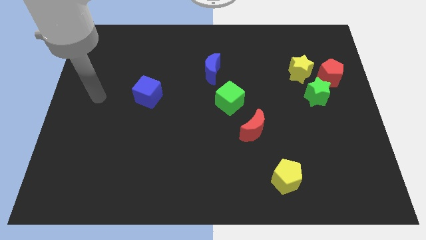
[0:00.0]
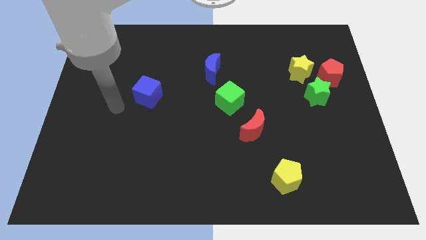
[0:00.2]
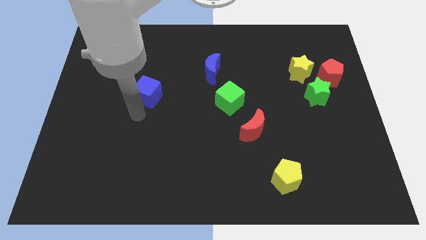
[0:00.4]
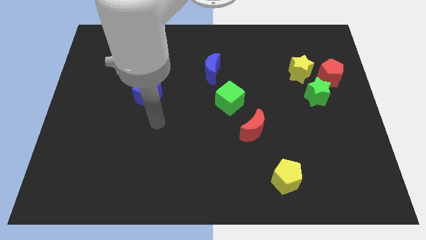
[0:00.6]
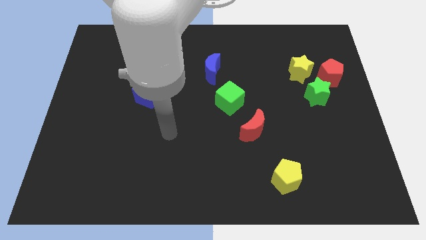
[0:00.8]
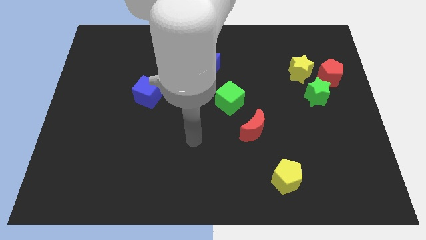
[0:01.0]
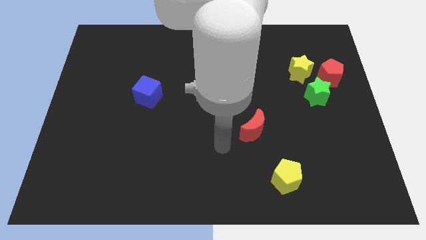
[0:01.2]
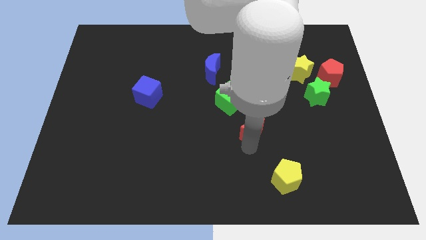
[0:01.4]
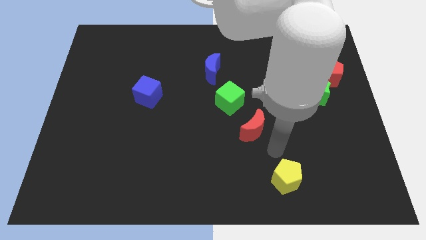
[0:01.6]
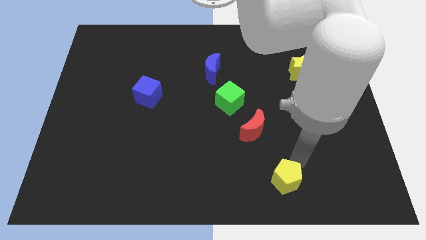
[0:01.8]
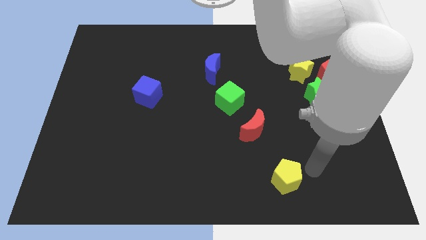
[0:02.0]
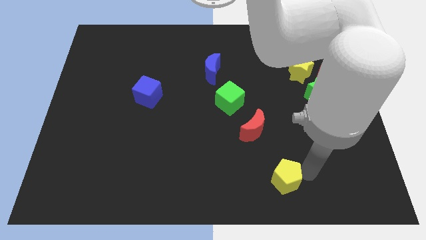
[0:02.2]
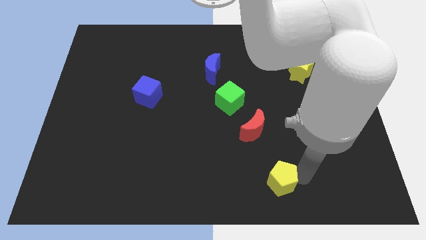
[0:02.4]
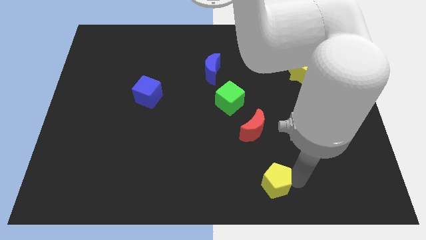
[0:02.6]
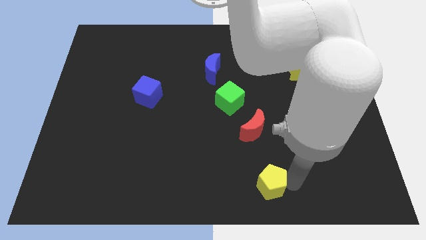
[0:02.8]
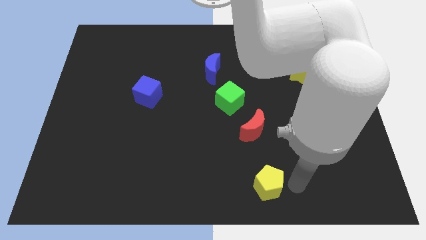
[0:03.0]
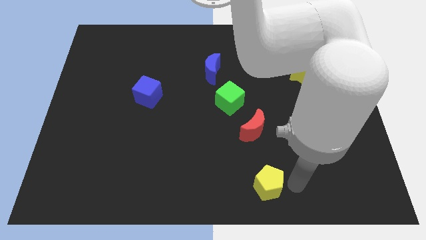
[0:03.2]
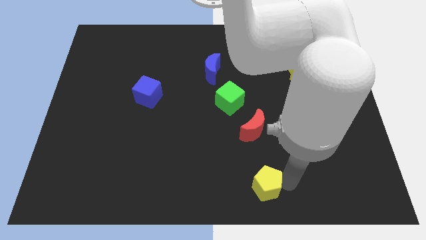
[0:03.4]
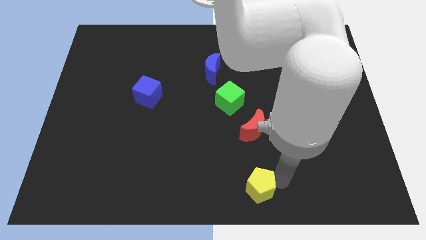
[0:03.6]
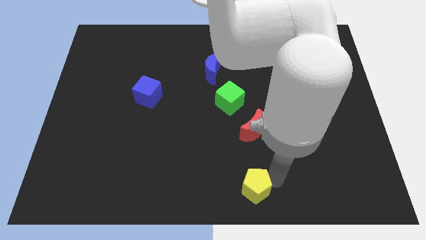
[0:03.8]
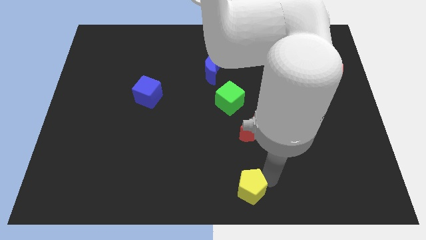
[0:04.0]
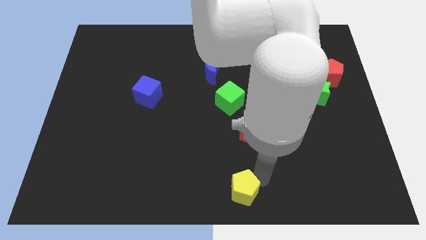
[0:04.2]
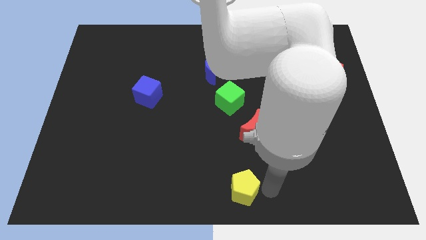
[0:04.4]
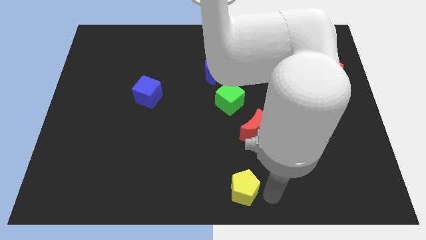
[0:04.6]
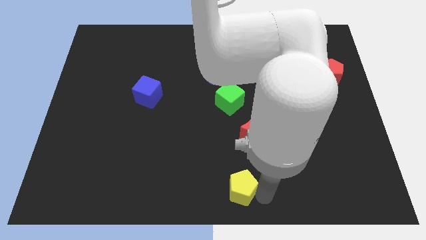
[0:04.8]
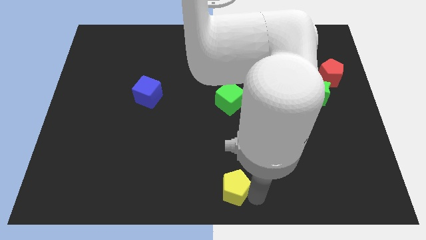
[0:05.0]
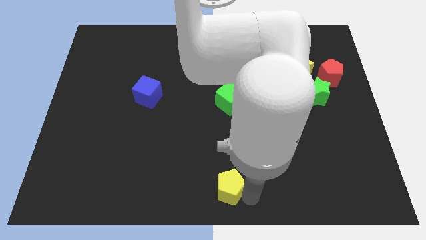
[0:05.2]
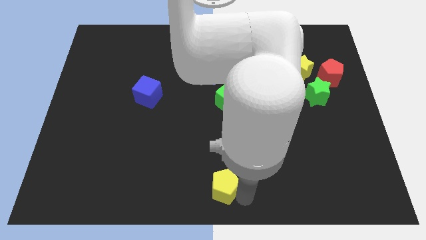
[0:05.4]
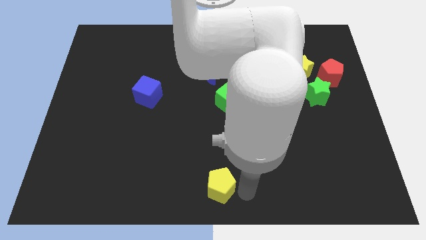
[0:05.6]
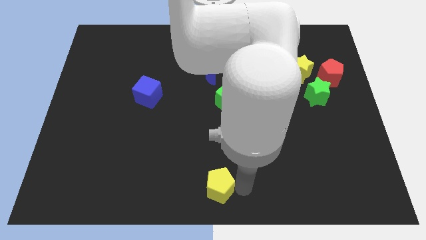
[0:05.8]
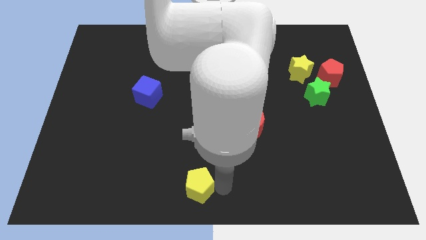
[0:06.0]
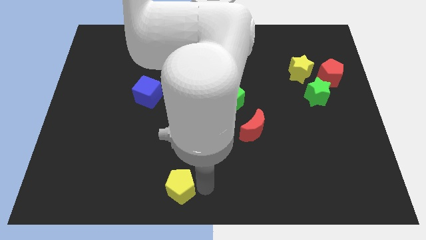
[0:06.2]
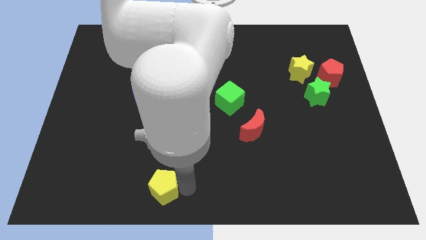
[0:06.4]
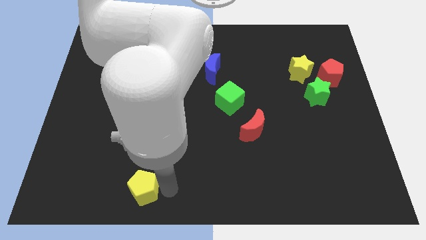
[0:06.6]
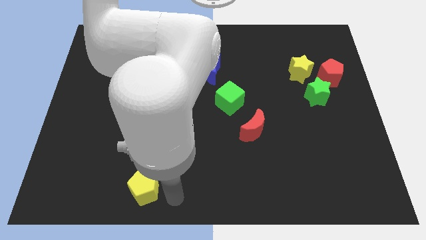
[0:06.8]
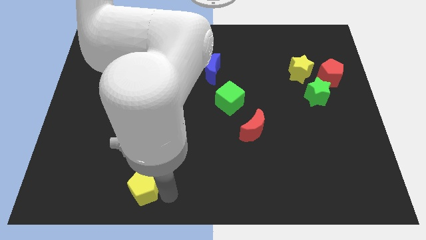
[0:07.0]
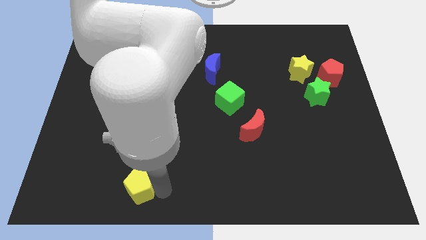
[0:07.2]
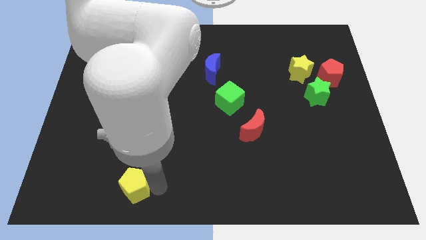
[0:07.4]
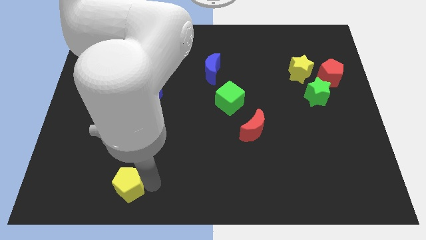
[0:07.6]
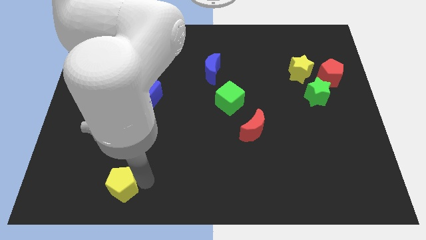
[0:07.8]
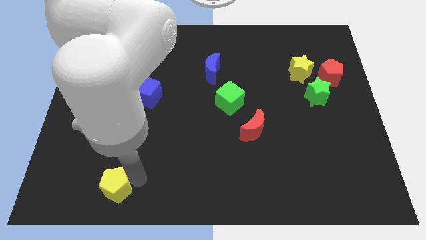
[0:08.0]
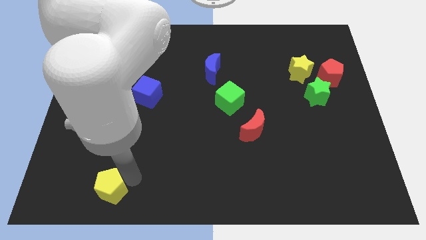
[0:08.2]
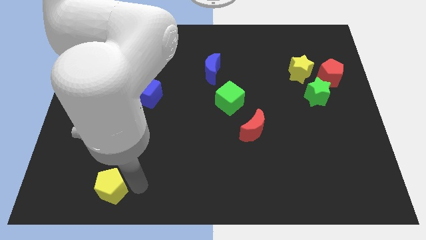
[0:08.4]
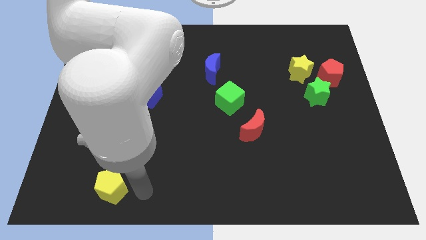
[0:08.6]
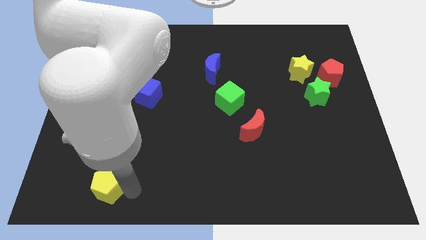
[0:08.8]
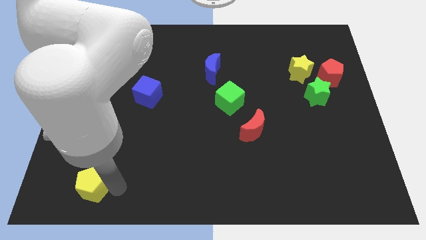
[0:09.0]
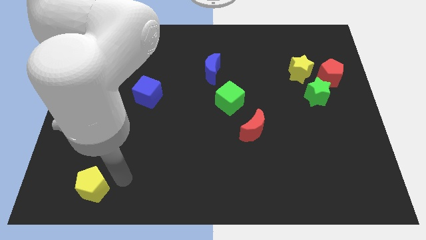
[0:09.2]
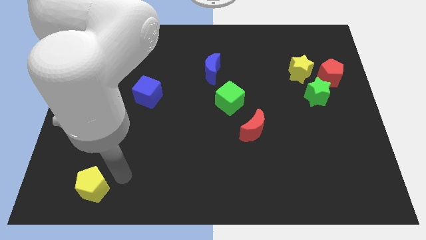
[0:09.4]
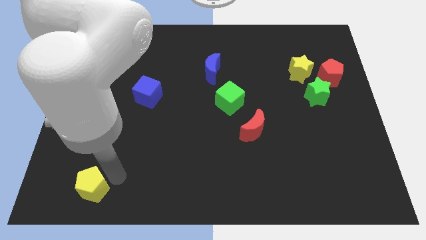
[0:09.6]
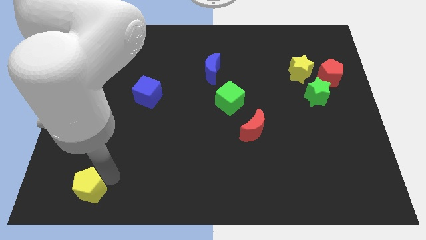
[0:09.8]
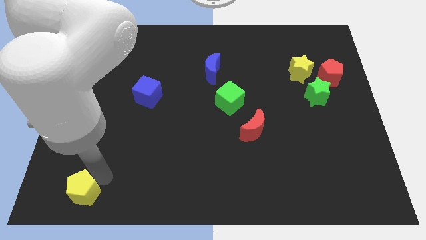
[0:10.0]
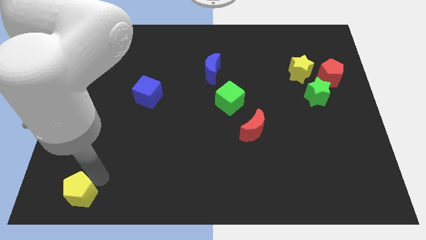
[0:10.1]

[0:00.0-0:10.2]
slide the yellow pentagon to the bottom left of the board

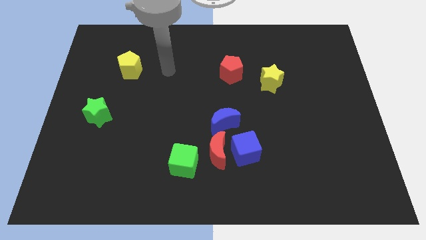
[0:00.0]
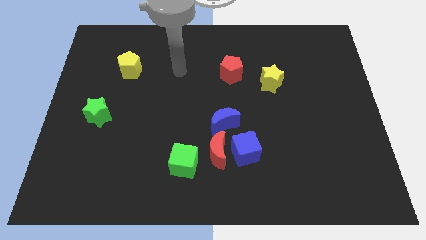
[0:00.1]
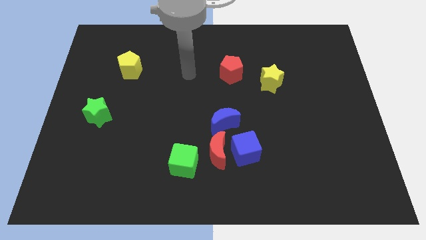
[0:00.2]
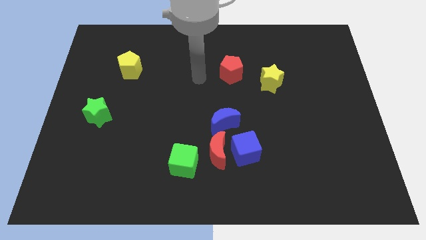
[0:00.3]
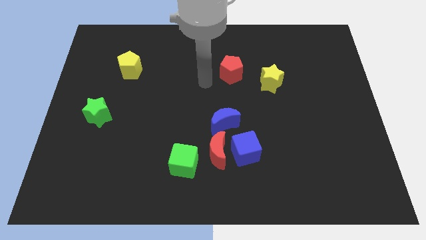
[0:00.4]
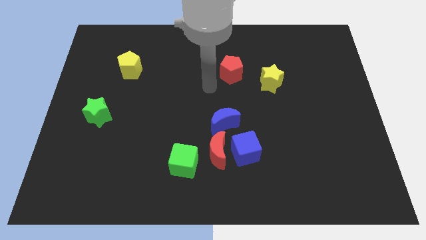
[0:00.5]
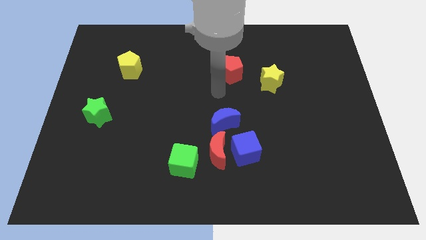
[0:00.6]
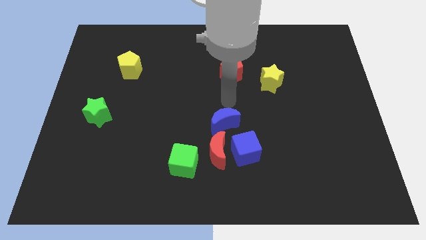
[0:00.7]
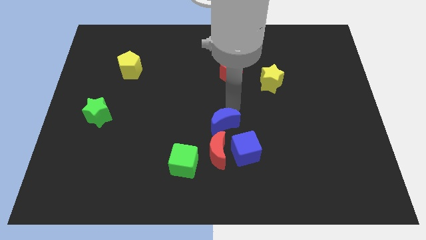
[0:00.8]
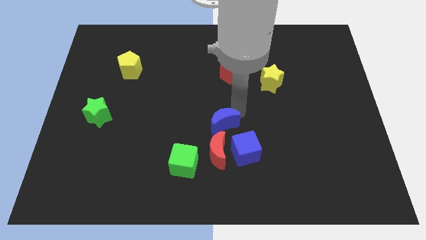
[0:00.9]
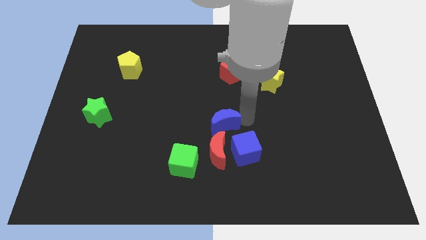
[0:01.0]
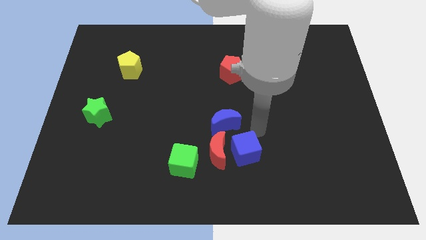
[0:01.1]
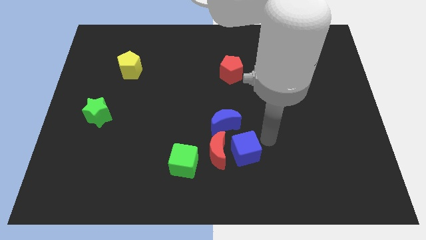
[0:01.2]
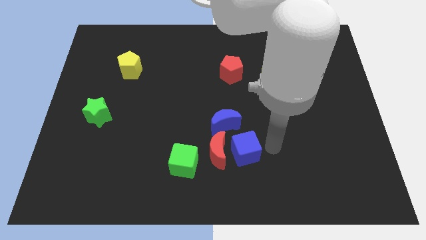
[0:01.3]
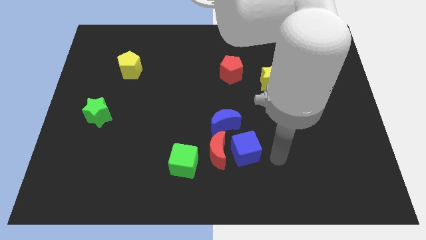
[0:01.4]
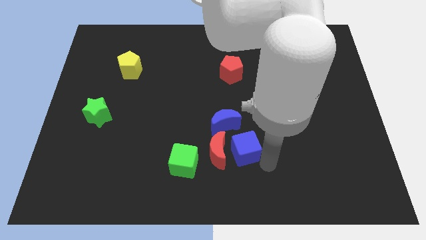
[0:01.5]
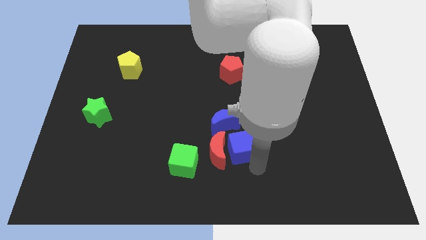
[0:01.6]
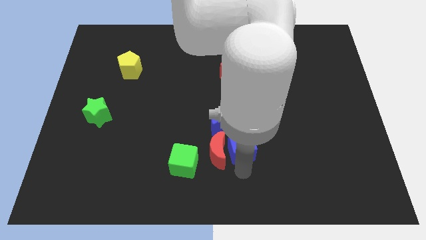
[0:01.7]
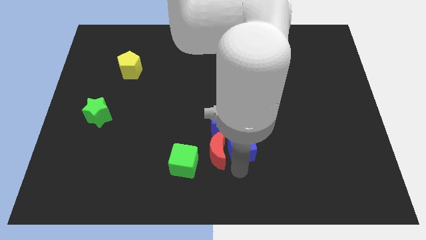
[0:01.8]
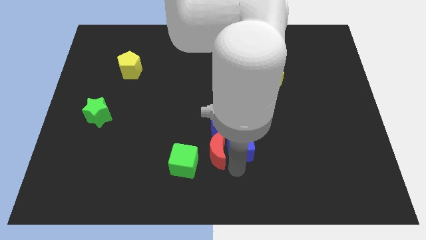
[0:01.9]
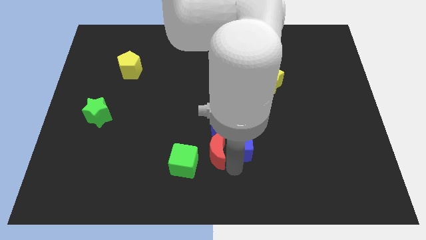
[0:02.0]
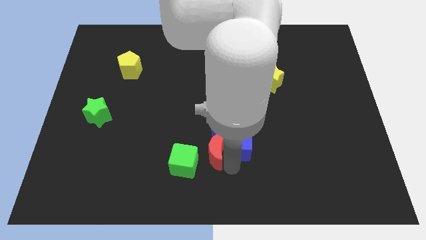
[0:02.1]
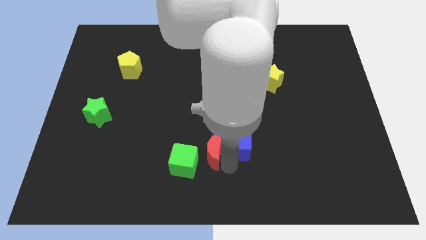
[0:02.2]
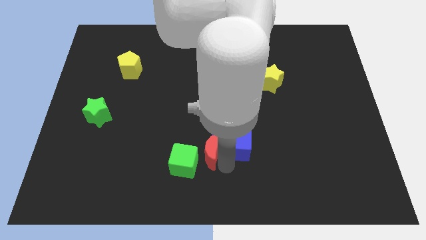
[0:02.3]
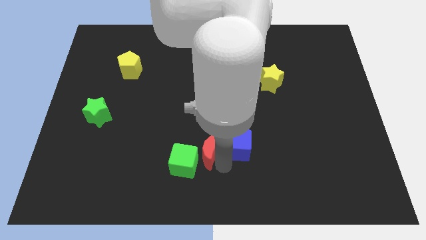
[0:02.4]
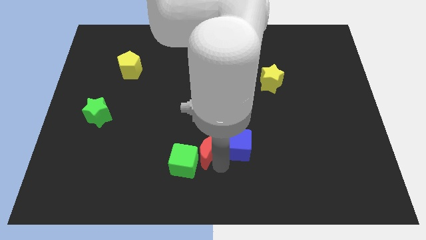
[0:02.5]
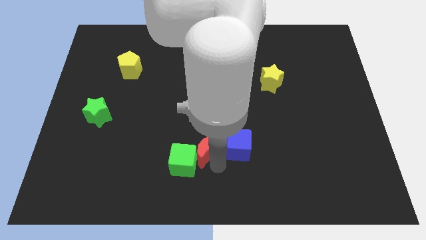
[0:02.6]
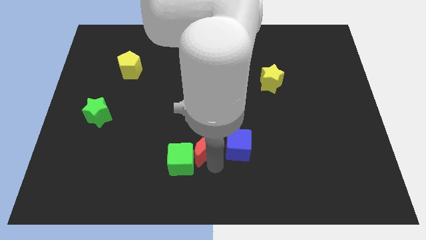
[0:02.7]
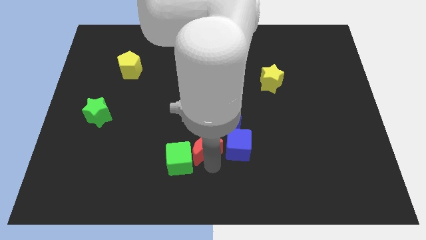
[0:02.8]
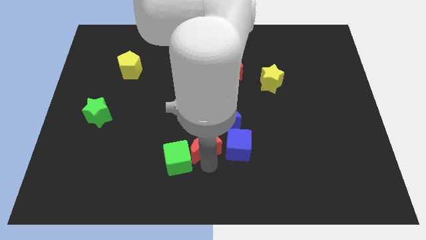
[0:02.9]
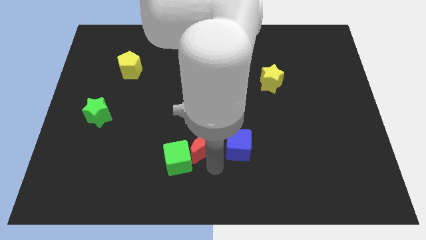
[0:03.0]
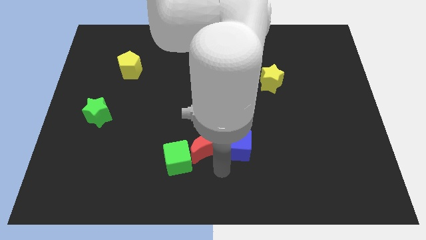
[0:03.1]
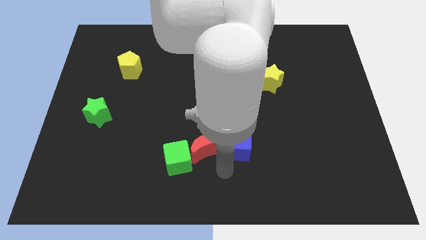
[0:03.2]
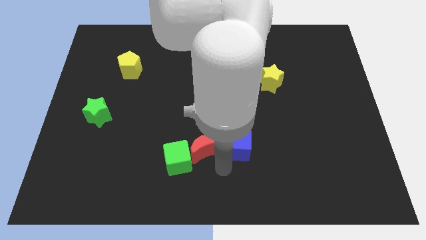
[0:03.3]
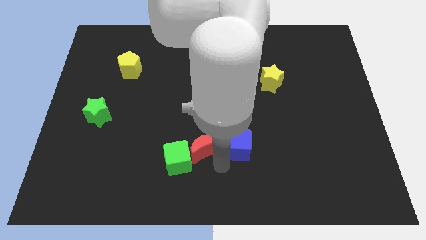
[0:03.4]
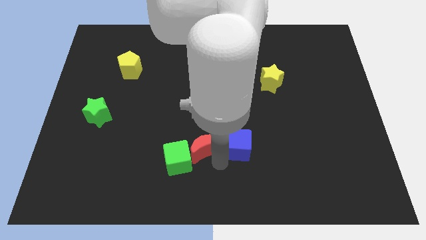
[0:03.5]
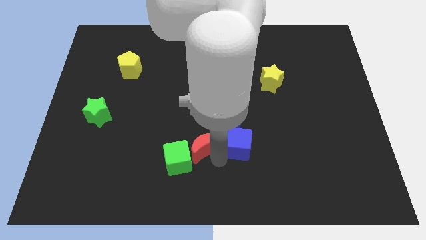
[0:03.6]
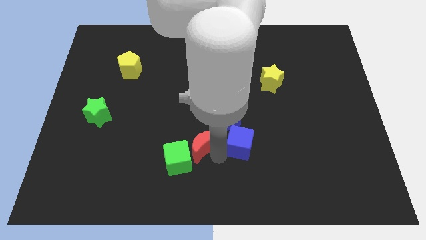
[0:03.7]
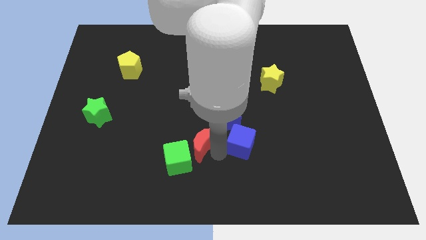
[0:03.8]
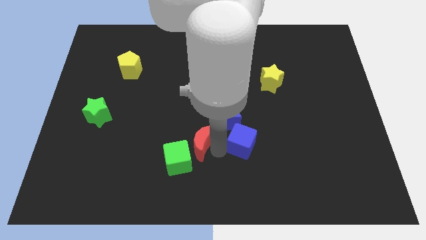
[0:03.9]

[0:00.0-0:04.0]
push the red moon to the middle of the board
